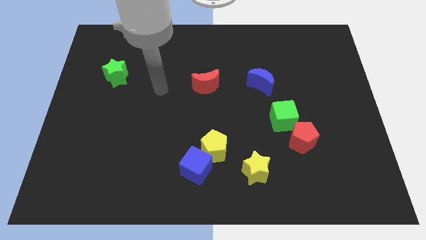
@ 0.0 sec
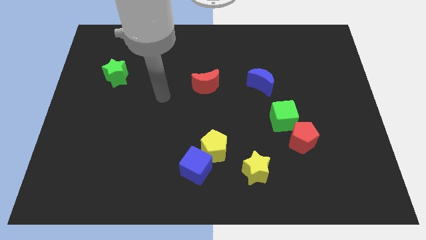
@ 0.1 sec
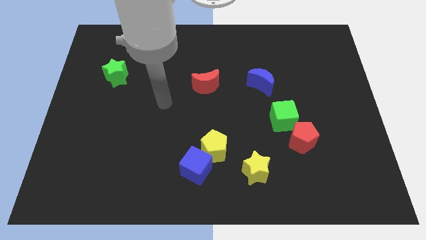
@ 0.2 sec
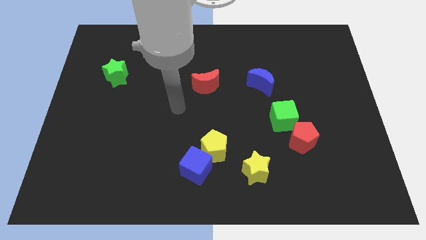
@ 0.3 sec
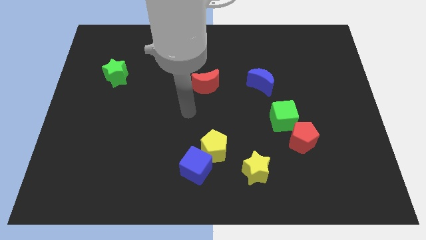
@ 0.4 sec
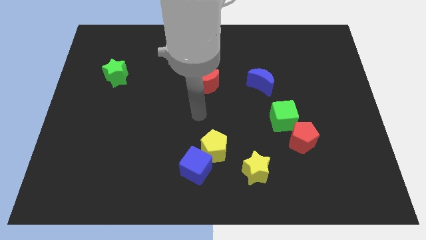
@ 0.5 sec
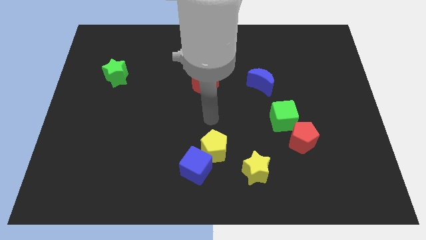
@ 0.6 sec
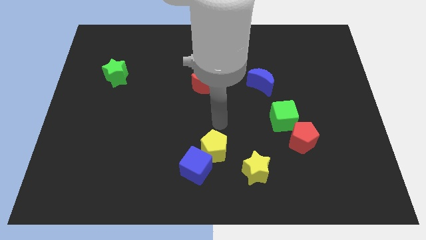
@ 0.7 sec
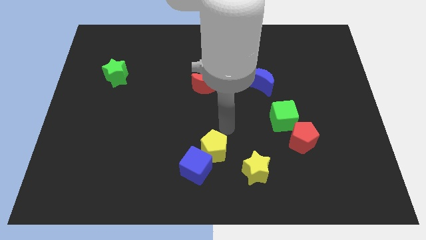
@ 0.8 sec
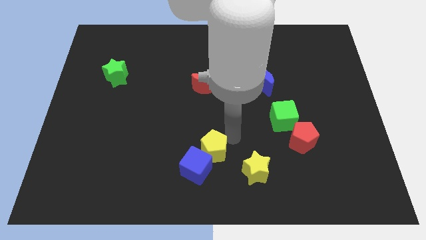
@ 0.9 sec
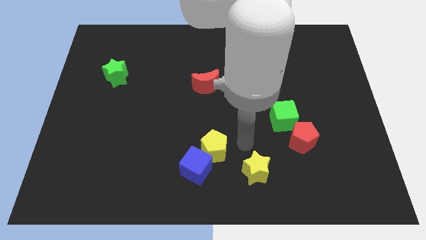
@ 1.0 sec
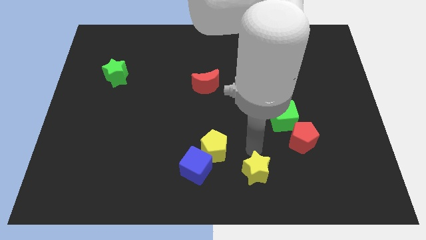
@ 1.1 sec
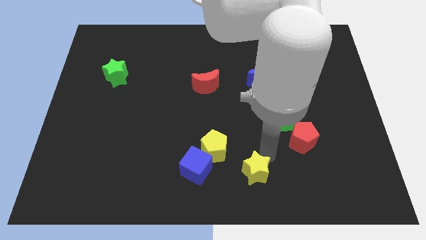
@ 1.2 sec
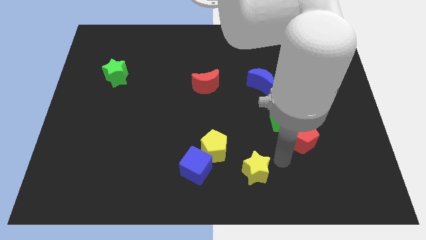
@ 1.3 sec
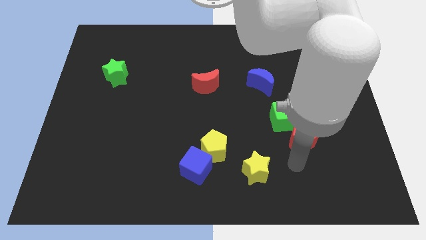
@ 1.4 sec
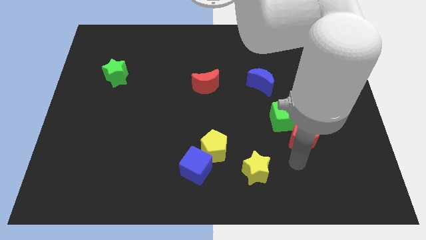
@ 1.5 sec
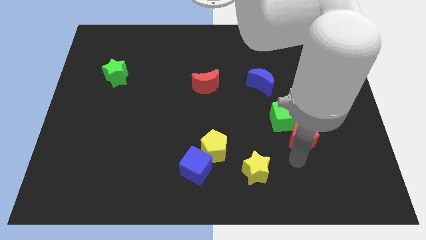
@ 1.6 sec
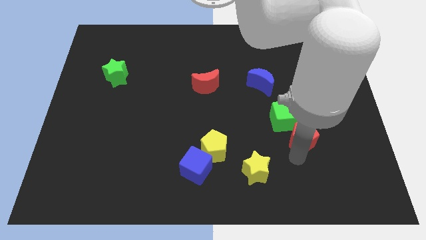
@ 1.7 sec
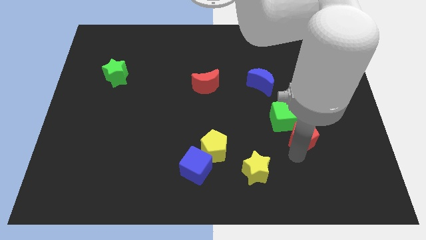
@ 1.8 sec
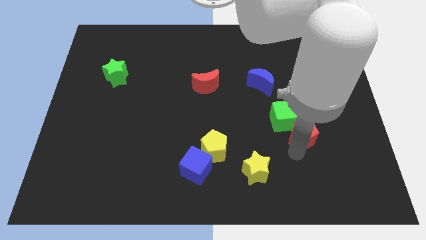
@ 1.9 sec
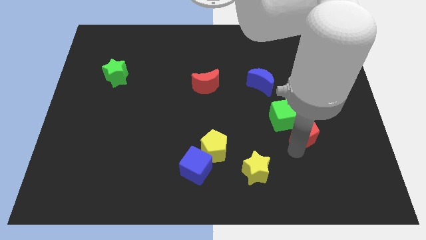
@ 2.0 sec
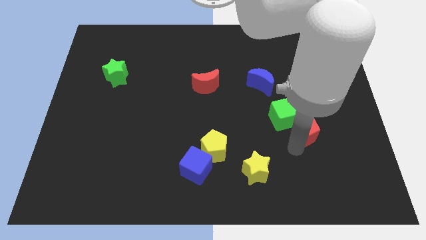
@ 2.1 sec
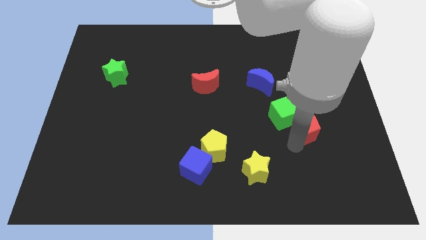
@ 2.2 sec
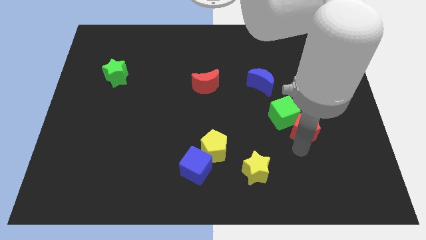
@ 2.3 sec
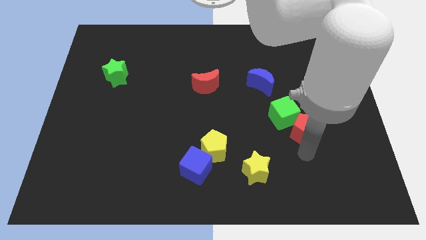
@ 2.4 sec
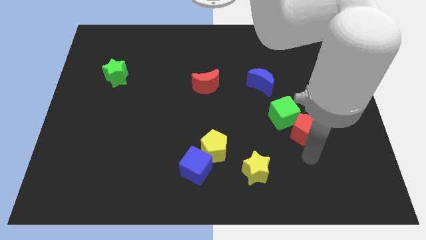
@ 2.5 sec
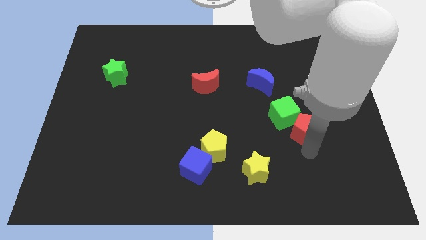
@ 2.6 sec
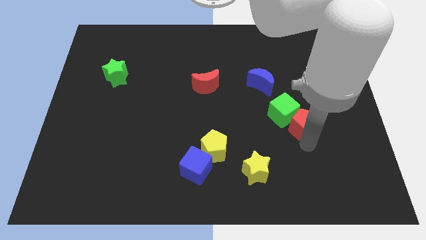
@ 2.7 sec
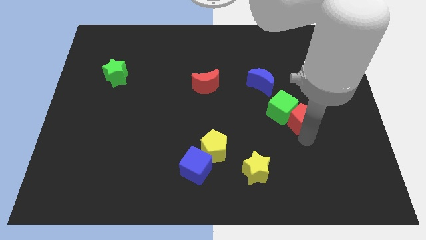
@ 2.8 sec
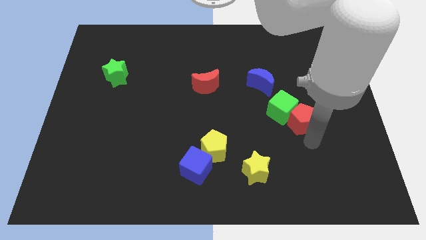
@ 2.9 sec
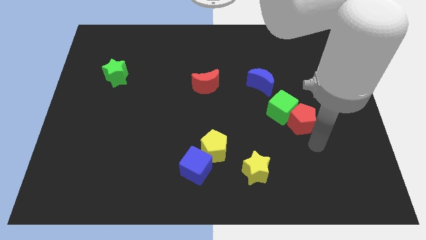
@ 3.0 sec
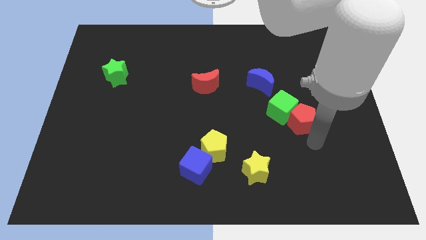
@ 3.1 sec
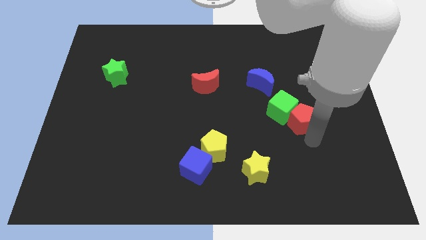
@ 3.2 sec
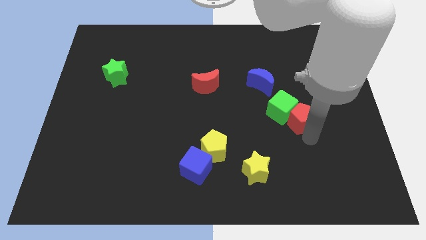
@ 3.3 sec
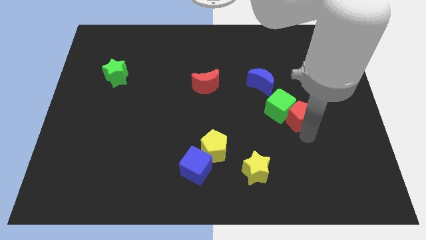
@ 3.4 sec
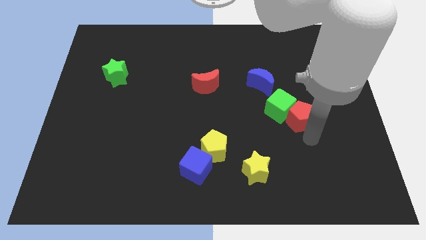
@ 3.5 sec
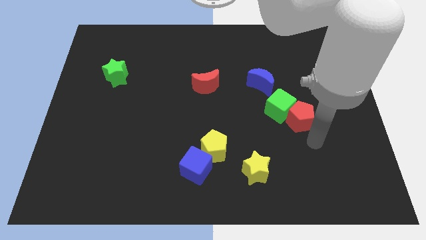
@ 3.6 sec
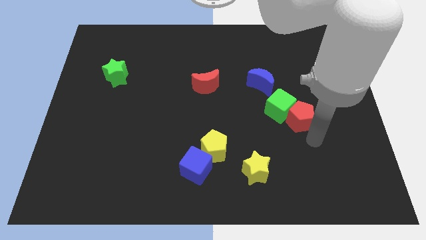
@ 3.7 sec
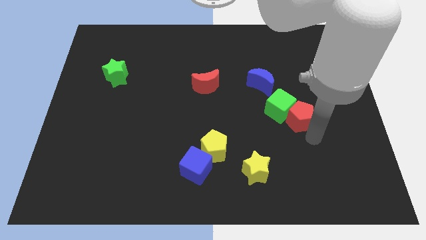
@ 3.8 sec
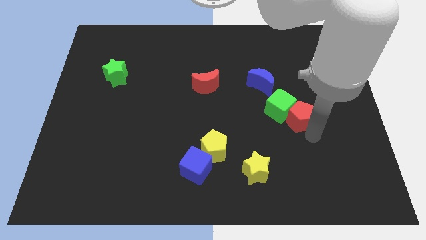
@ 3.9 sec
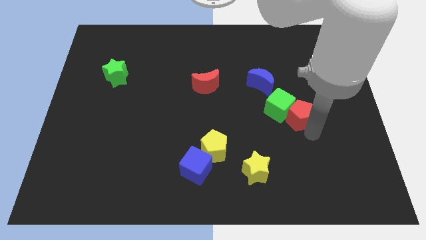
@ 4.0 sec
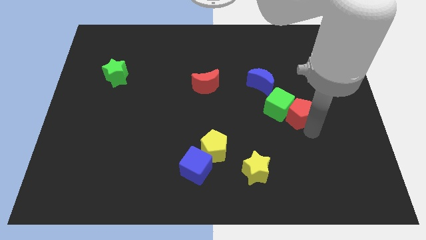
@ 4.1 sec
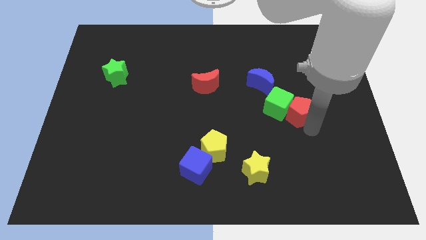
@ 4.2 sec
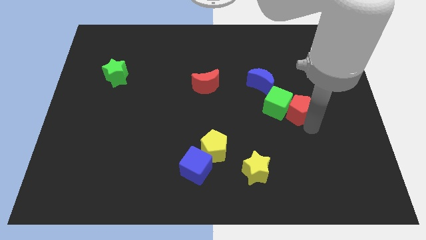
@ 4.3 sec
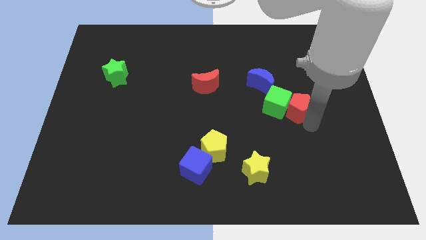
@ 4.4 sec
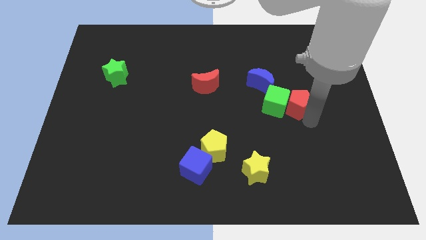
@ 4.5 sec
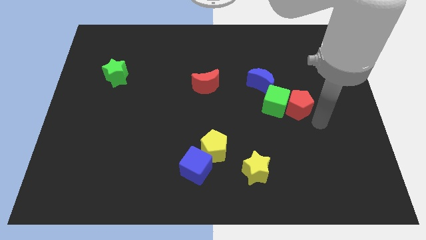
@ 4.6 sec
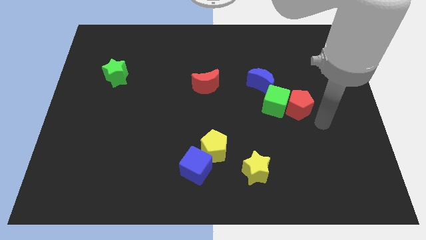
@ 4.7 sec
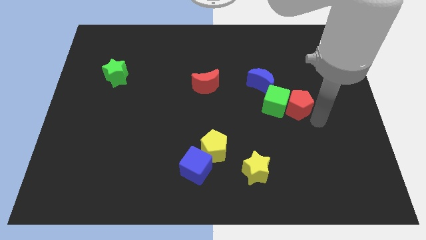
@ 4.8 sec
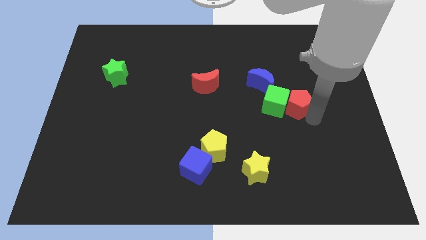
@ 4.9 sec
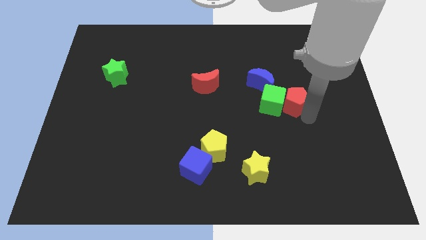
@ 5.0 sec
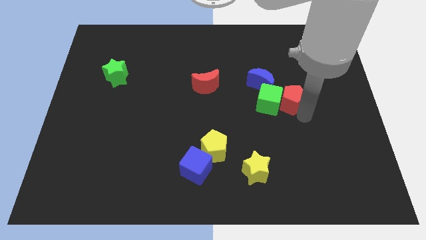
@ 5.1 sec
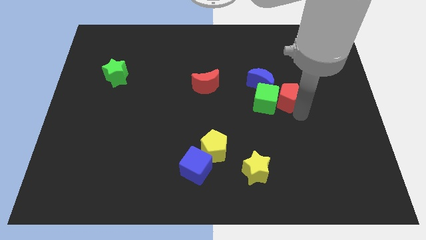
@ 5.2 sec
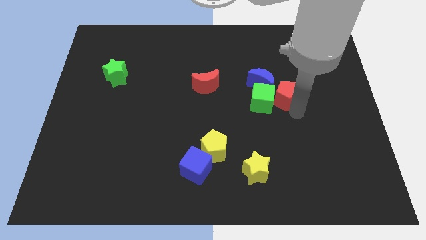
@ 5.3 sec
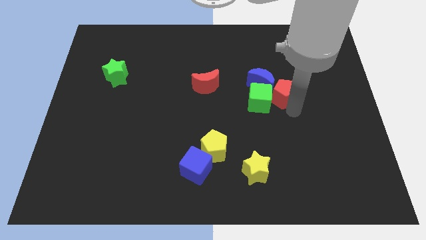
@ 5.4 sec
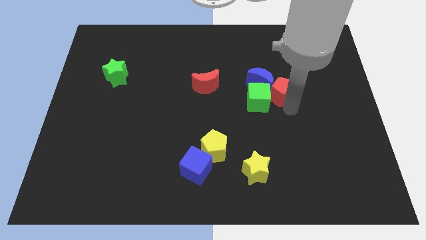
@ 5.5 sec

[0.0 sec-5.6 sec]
move the red pentagon next to the blue moon

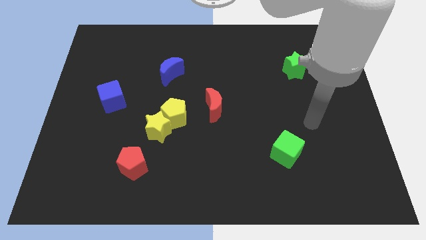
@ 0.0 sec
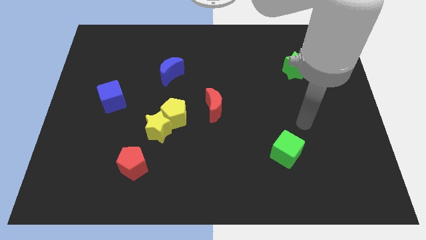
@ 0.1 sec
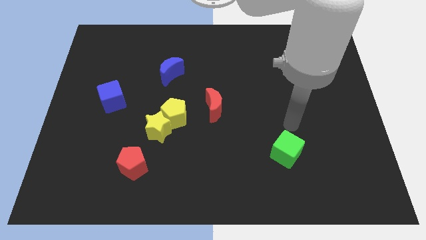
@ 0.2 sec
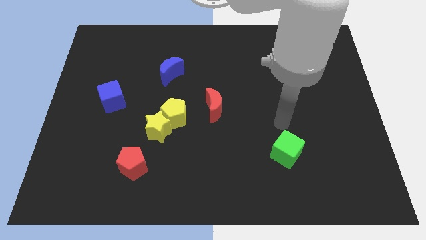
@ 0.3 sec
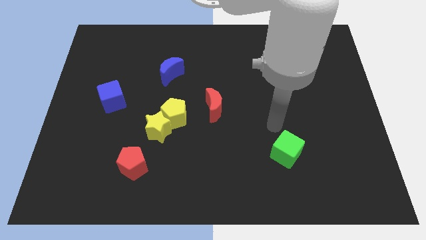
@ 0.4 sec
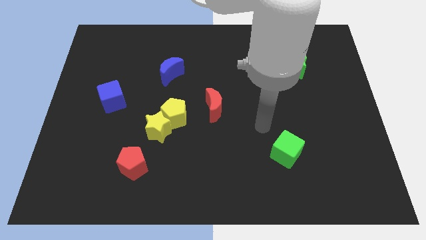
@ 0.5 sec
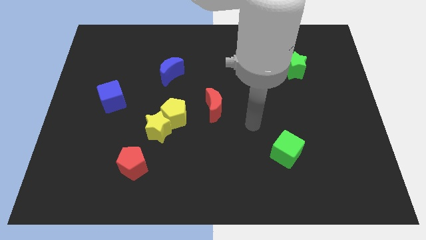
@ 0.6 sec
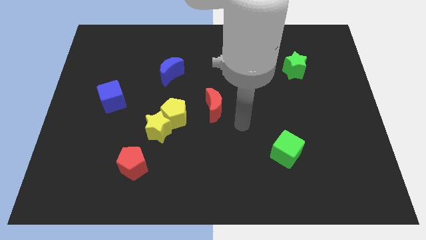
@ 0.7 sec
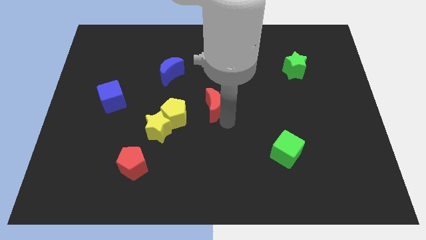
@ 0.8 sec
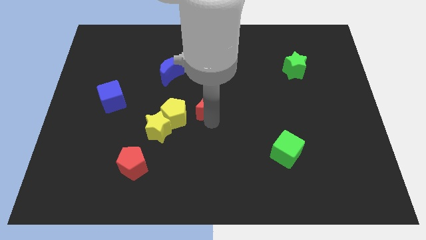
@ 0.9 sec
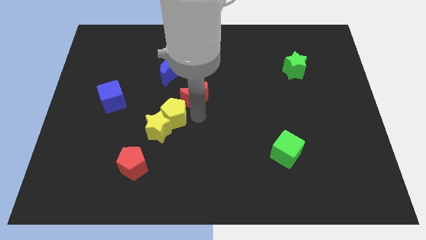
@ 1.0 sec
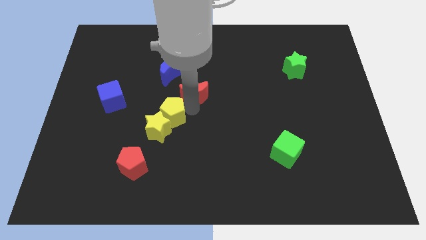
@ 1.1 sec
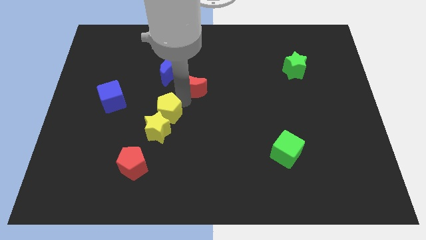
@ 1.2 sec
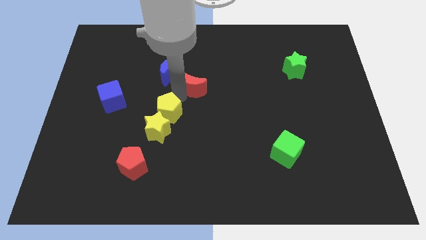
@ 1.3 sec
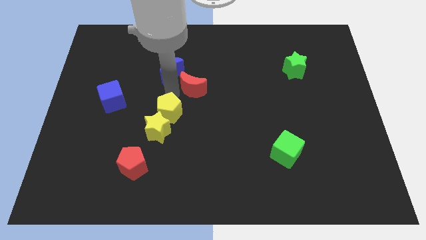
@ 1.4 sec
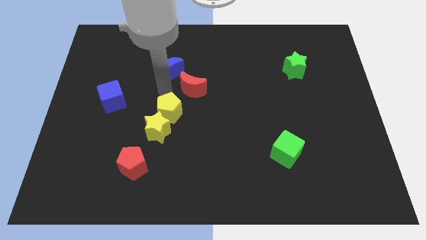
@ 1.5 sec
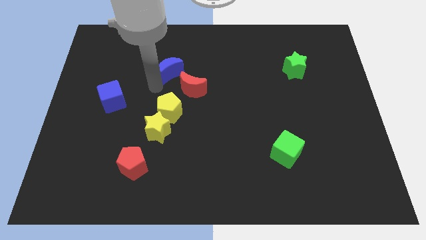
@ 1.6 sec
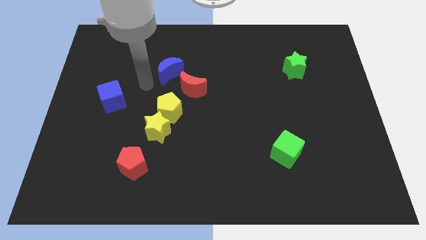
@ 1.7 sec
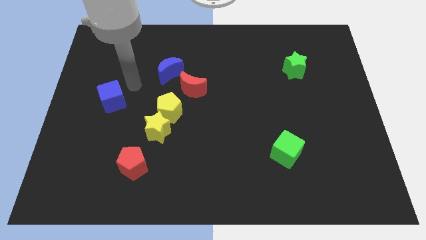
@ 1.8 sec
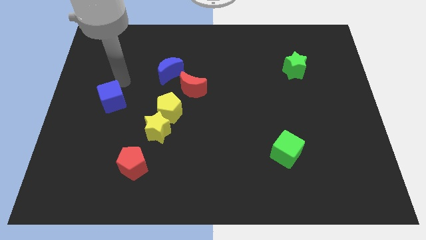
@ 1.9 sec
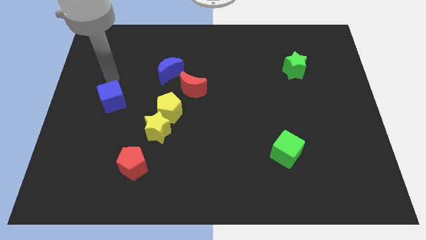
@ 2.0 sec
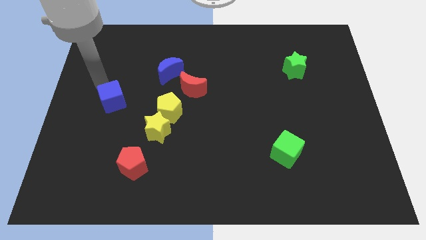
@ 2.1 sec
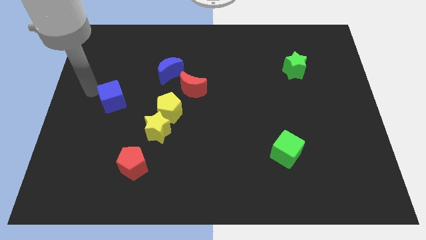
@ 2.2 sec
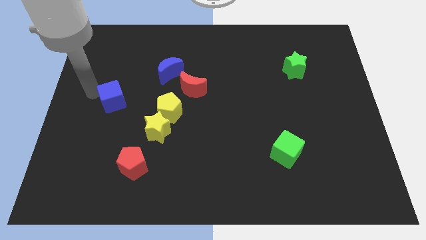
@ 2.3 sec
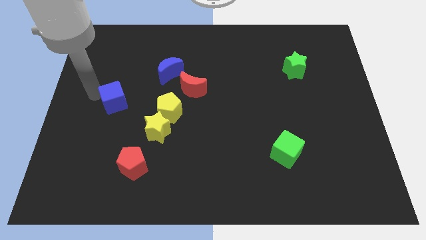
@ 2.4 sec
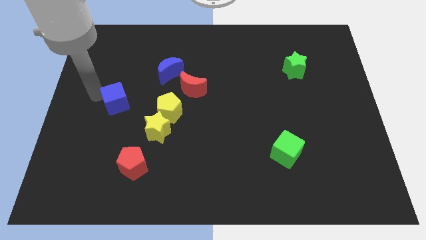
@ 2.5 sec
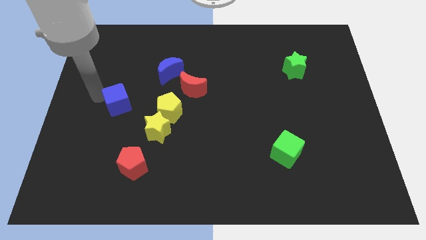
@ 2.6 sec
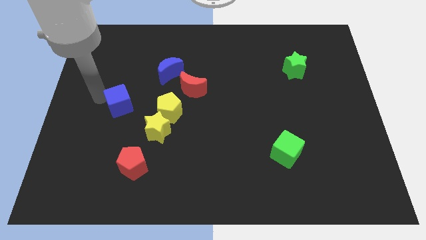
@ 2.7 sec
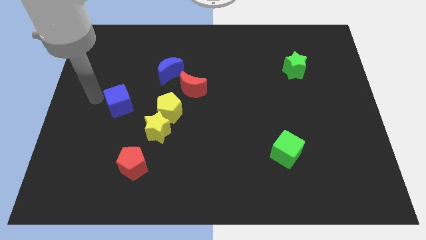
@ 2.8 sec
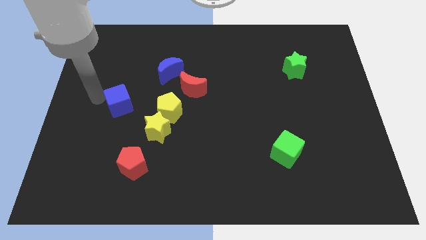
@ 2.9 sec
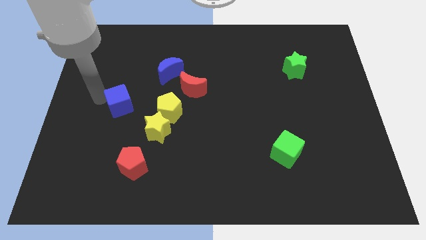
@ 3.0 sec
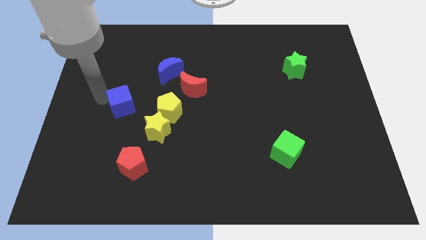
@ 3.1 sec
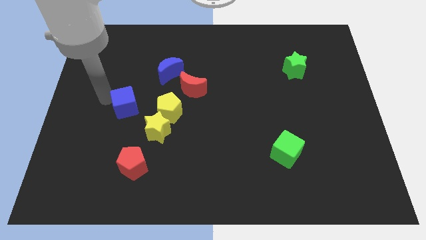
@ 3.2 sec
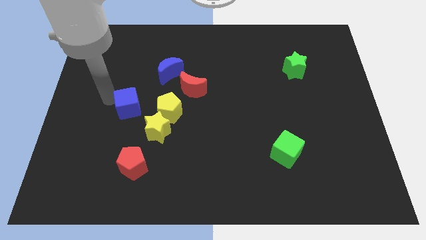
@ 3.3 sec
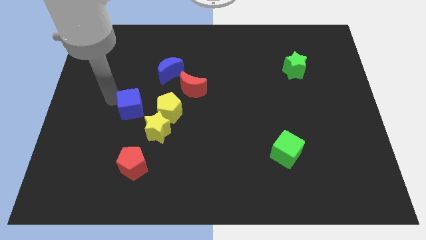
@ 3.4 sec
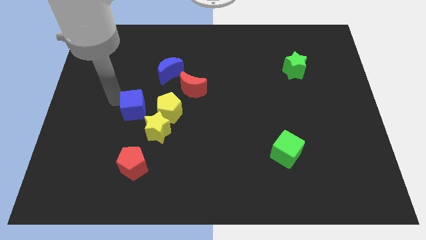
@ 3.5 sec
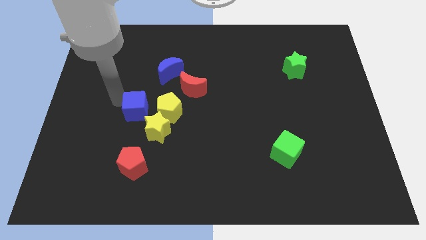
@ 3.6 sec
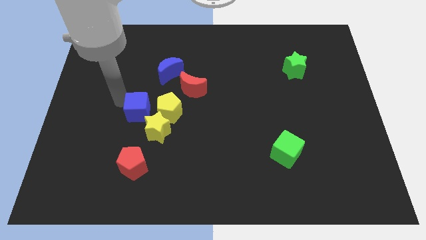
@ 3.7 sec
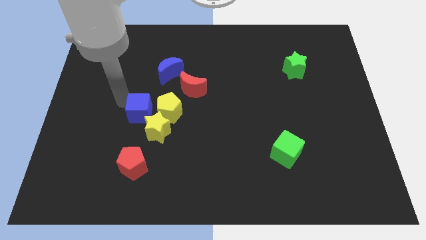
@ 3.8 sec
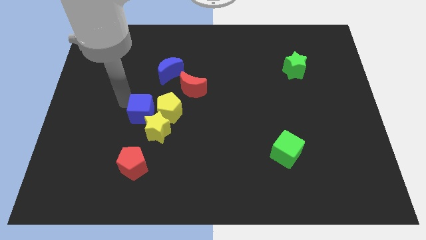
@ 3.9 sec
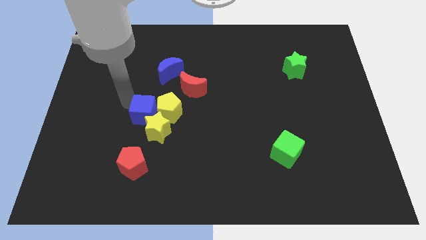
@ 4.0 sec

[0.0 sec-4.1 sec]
slide the blue cube to the yellow pentagon
